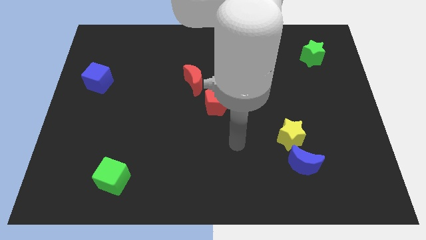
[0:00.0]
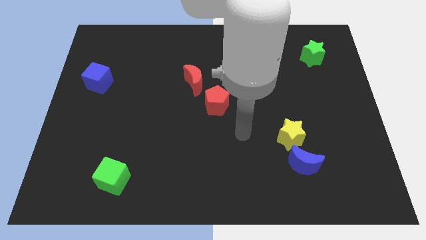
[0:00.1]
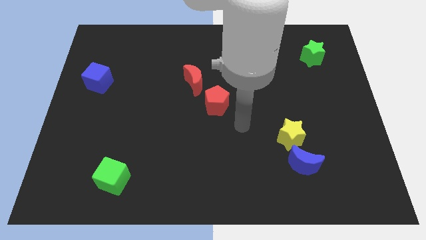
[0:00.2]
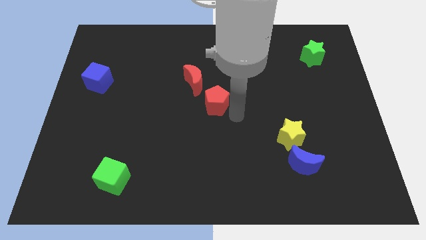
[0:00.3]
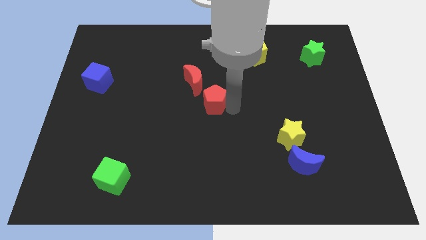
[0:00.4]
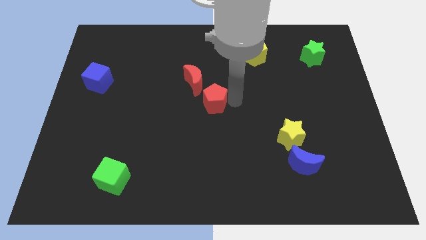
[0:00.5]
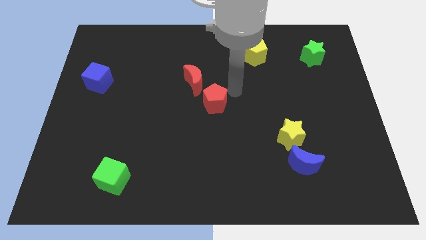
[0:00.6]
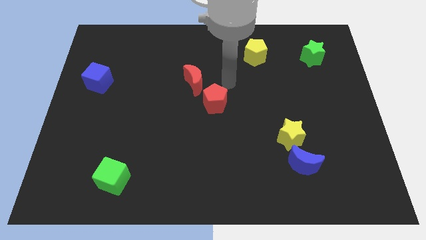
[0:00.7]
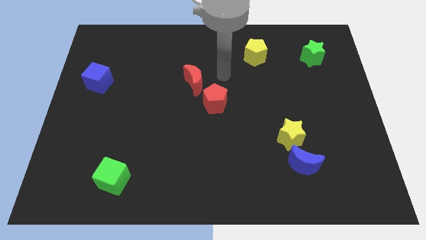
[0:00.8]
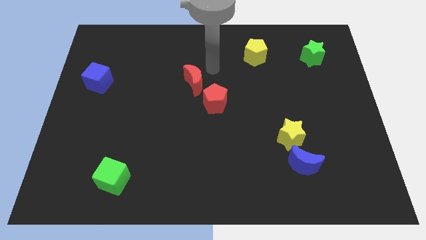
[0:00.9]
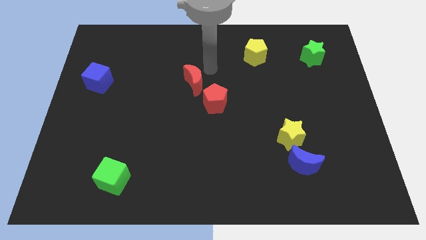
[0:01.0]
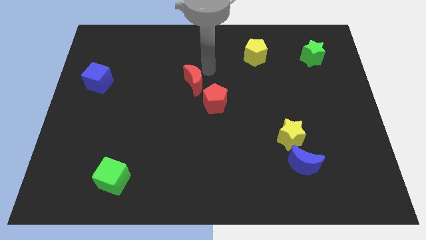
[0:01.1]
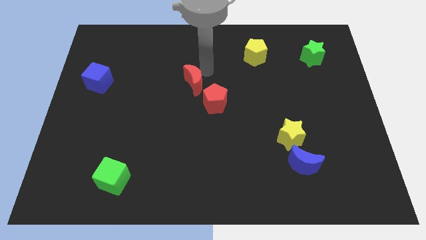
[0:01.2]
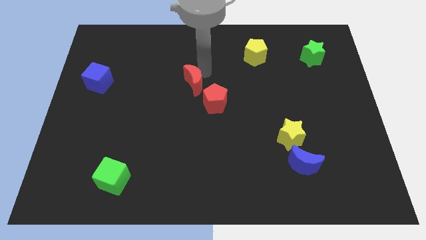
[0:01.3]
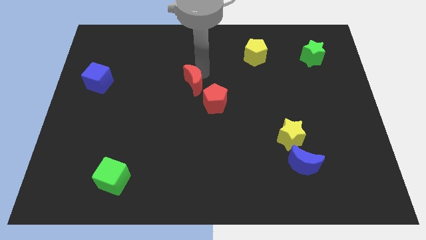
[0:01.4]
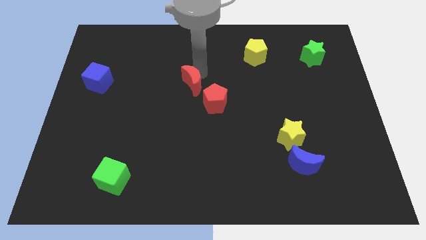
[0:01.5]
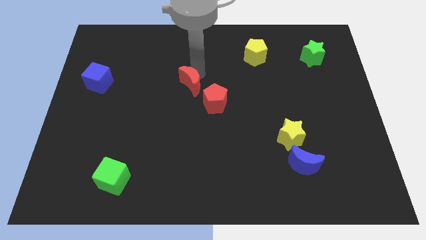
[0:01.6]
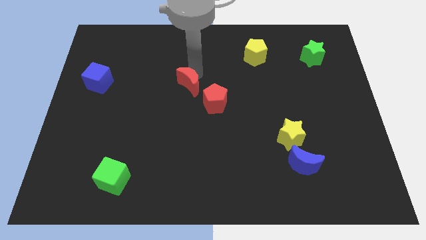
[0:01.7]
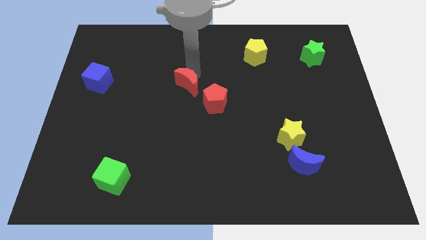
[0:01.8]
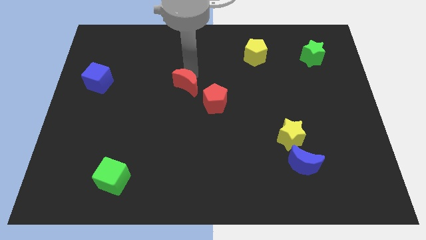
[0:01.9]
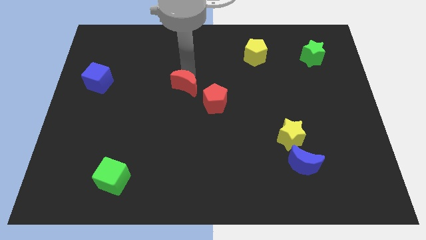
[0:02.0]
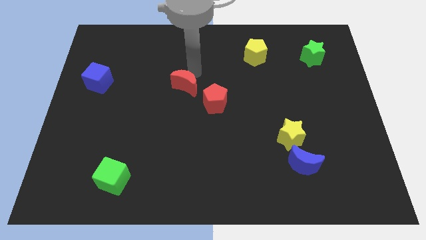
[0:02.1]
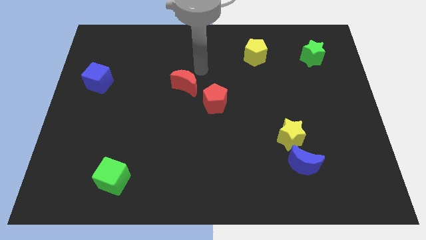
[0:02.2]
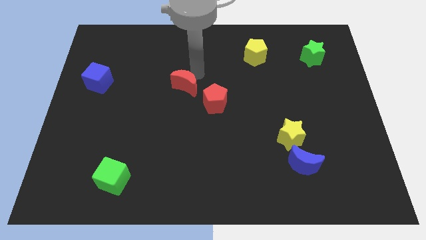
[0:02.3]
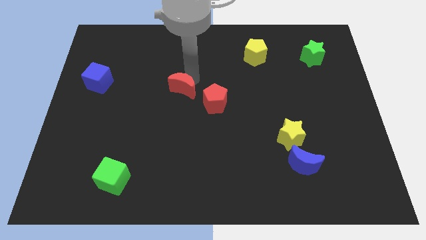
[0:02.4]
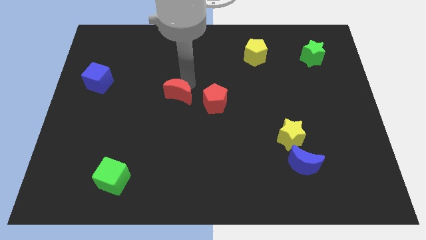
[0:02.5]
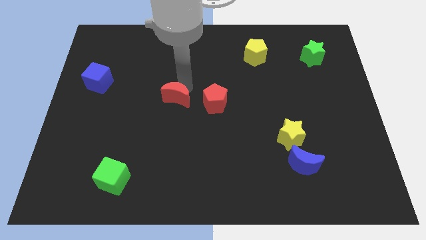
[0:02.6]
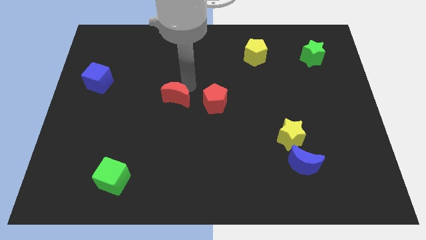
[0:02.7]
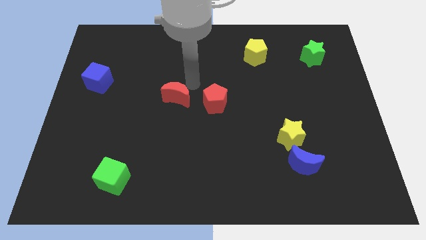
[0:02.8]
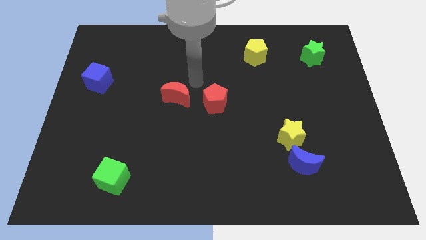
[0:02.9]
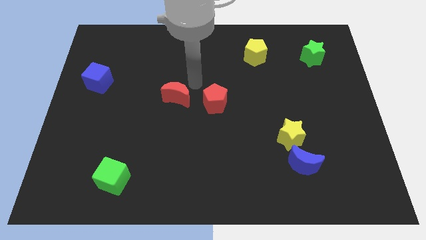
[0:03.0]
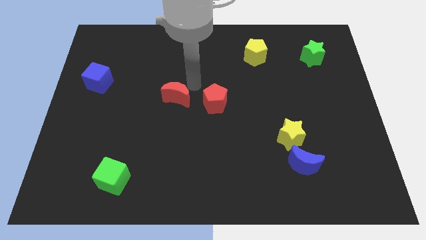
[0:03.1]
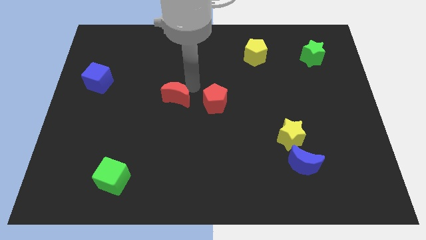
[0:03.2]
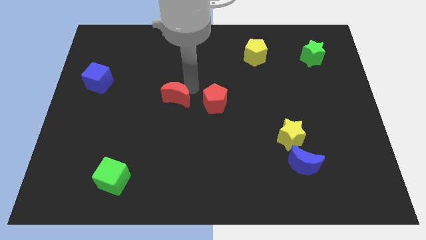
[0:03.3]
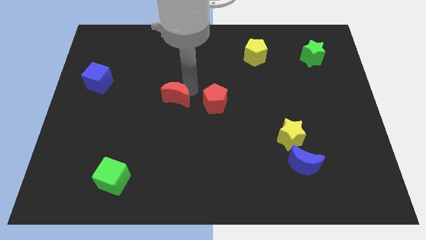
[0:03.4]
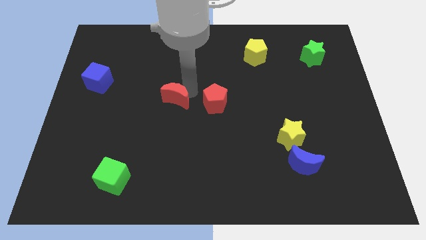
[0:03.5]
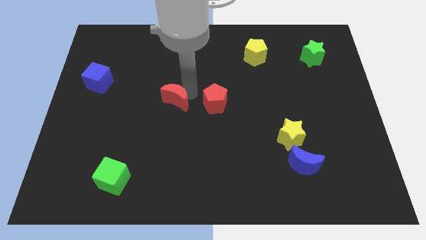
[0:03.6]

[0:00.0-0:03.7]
slide the red moon down and left diagonally slightly

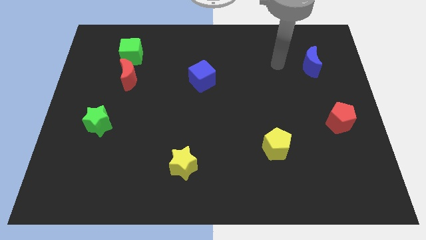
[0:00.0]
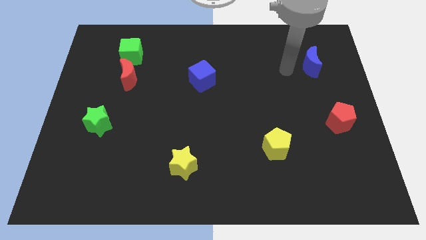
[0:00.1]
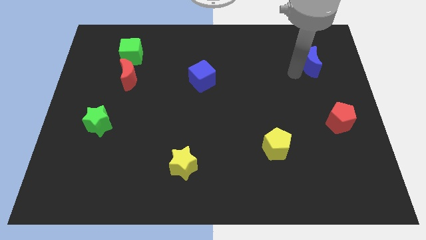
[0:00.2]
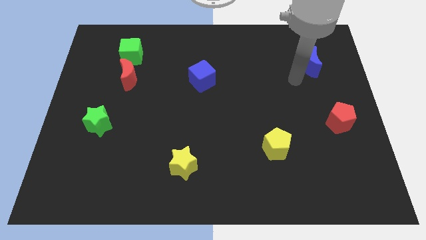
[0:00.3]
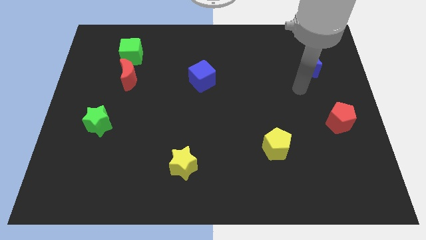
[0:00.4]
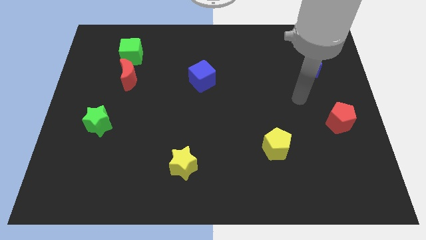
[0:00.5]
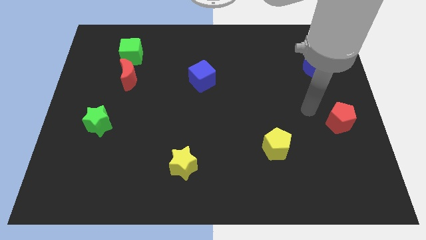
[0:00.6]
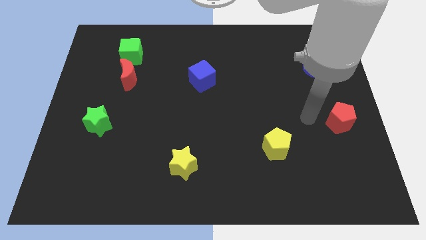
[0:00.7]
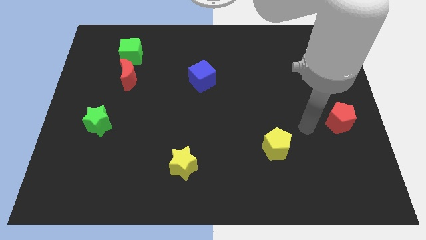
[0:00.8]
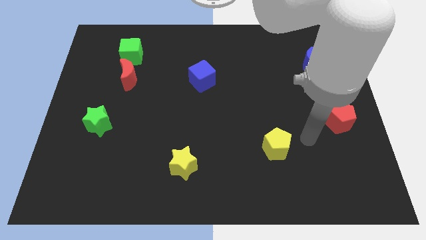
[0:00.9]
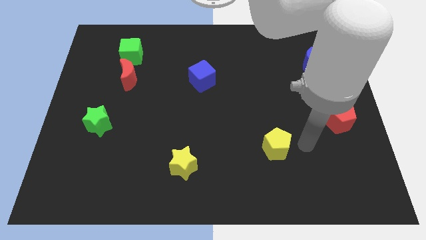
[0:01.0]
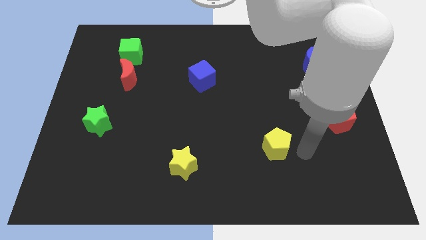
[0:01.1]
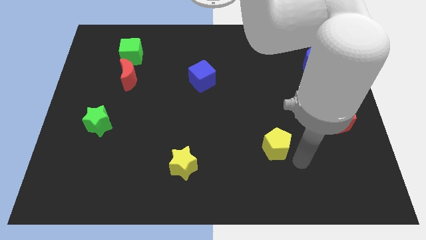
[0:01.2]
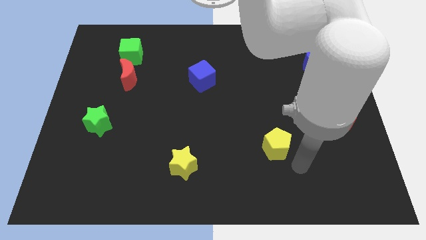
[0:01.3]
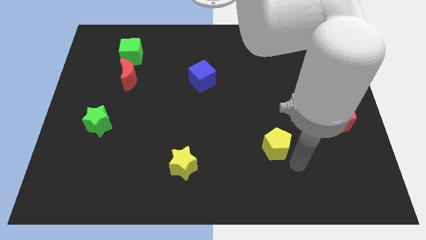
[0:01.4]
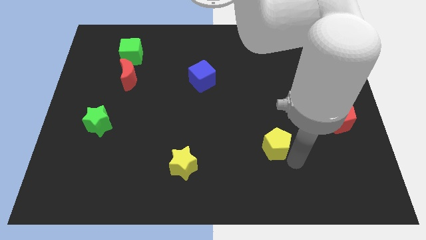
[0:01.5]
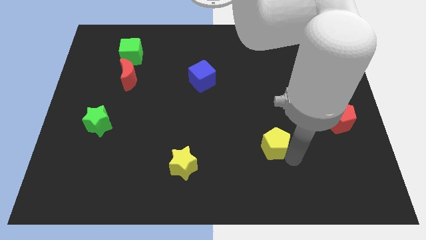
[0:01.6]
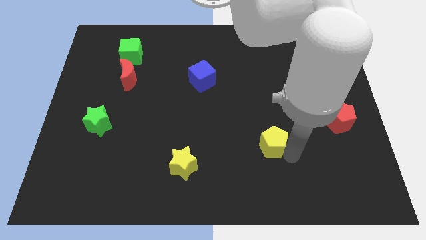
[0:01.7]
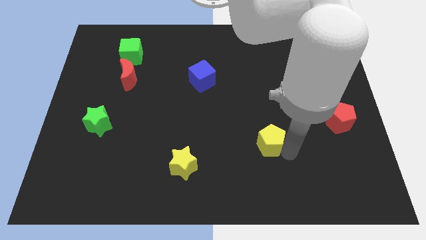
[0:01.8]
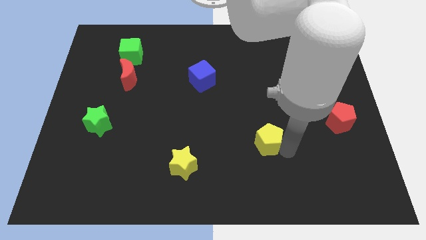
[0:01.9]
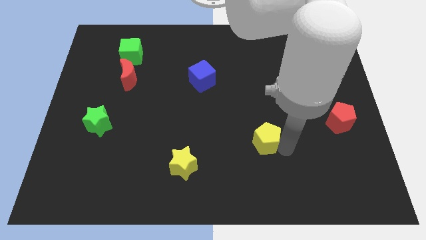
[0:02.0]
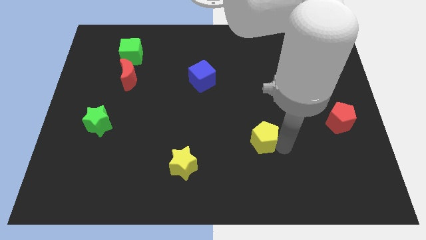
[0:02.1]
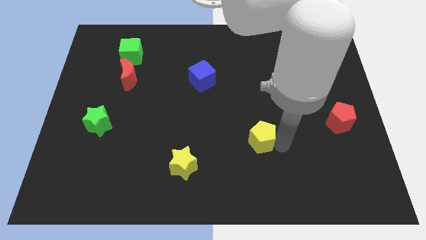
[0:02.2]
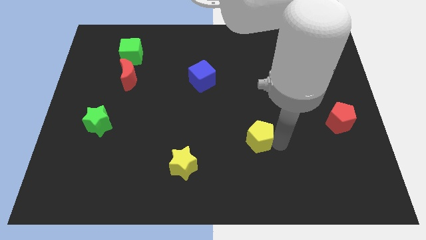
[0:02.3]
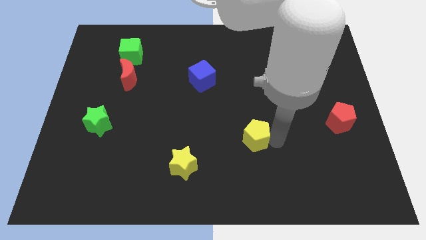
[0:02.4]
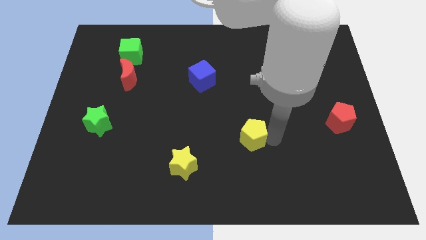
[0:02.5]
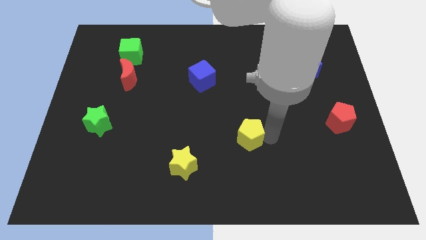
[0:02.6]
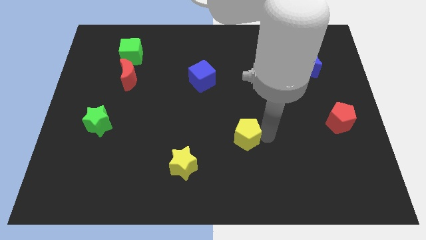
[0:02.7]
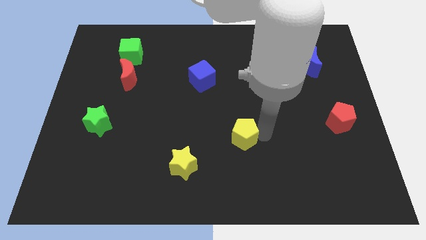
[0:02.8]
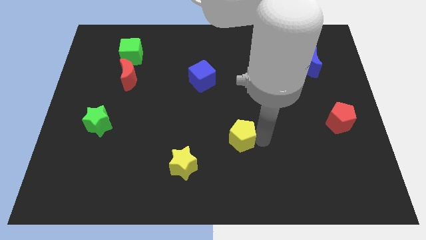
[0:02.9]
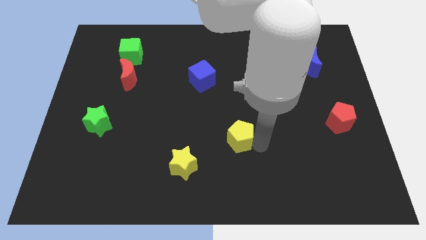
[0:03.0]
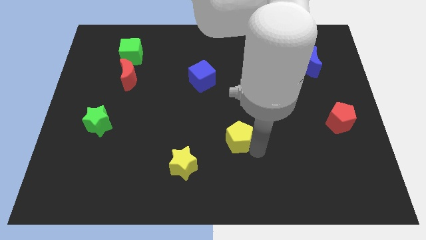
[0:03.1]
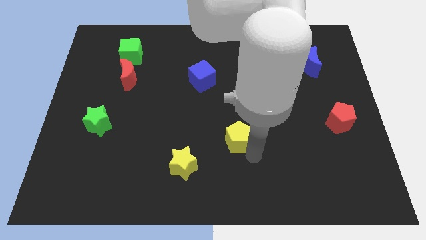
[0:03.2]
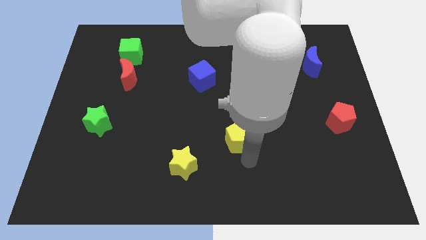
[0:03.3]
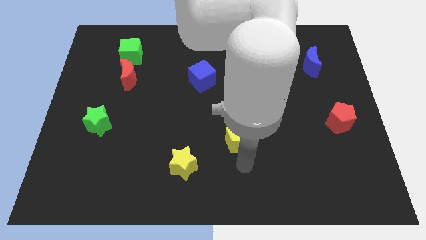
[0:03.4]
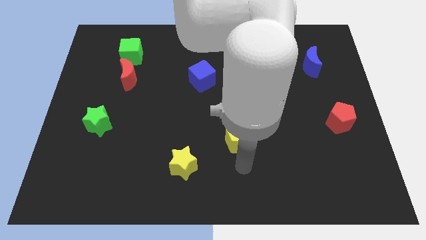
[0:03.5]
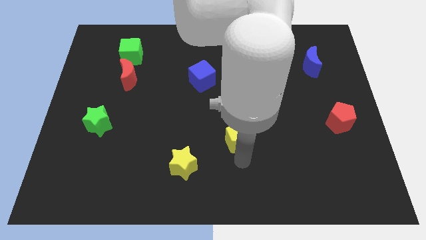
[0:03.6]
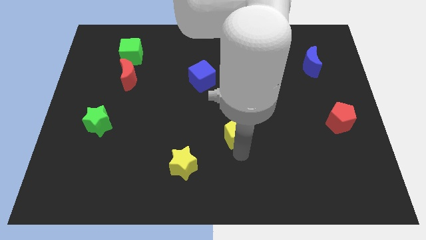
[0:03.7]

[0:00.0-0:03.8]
push the yellow pentagon diagonally up and left somewhat

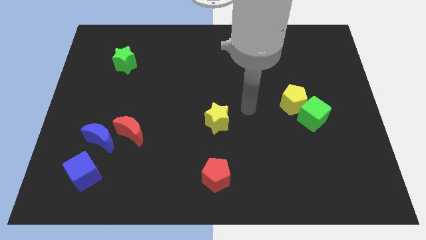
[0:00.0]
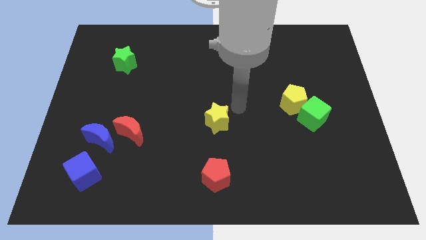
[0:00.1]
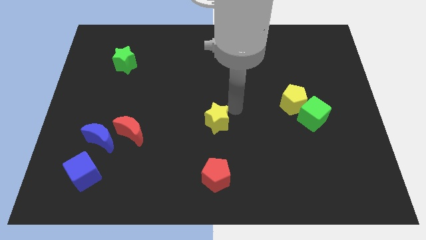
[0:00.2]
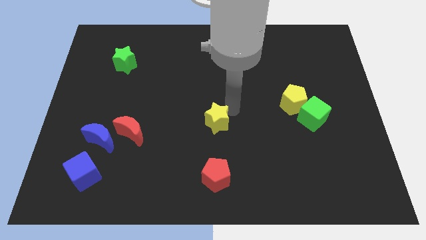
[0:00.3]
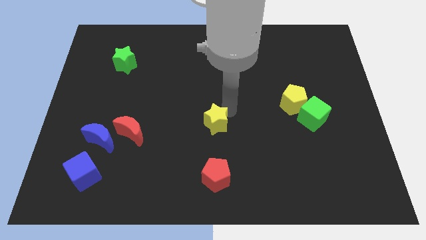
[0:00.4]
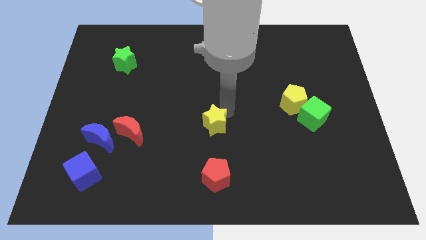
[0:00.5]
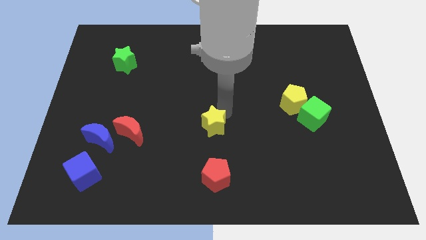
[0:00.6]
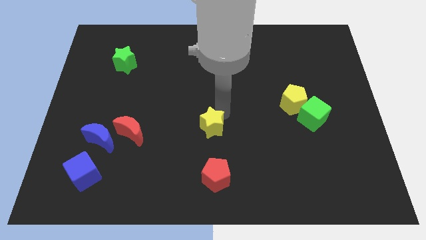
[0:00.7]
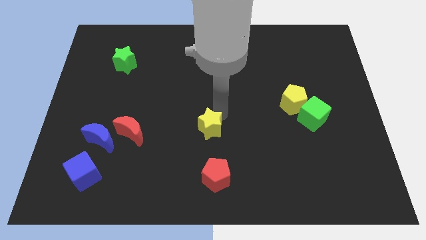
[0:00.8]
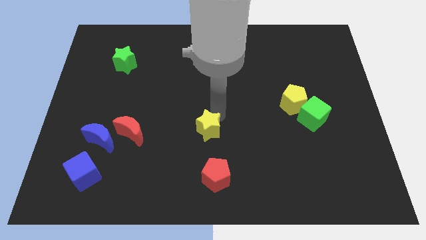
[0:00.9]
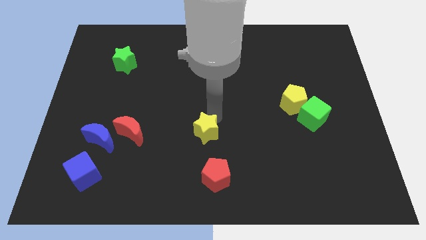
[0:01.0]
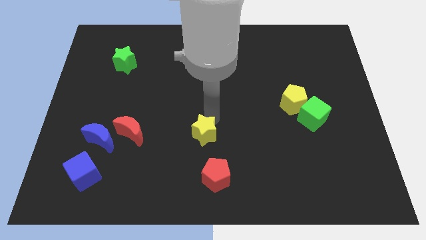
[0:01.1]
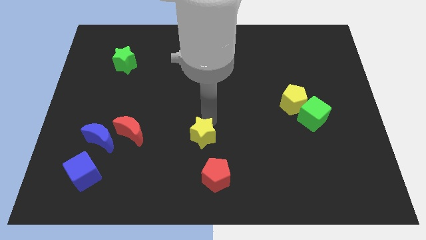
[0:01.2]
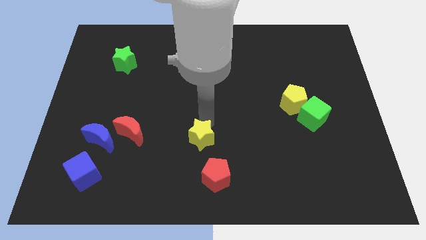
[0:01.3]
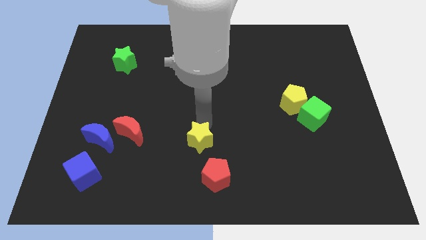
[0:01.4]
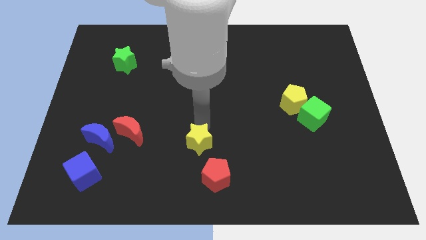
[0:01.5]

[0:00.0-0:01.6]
move the yellow star down and then to the left a little
